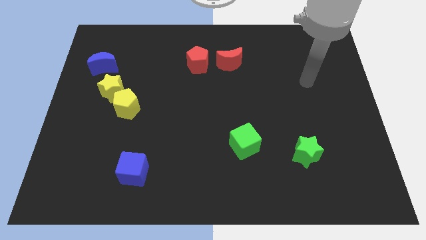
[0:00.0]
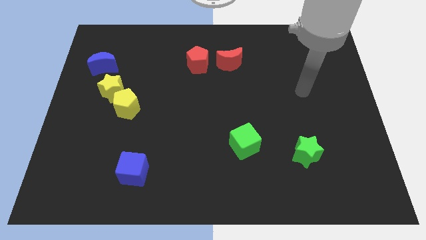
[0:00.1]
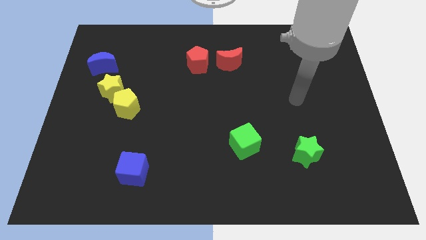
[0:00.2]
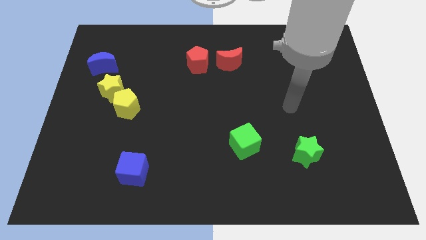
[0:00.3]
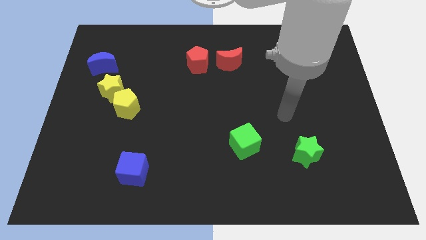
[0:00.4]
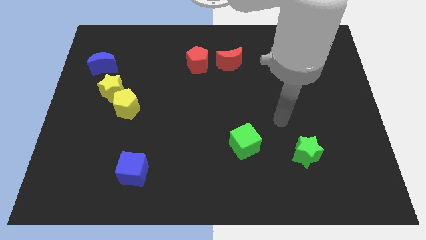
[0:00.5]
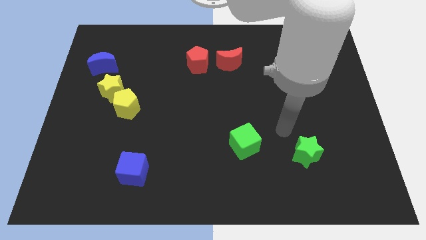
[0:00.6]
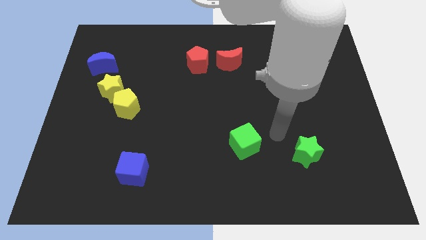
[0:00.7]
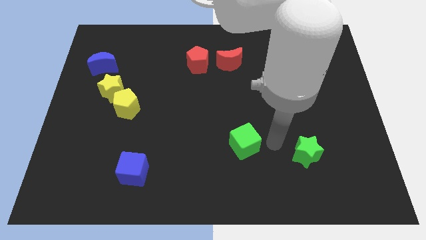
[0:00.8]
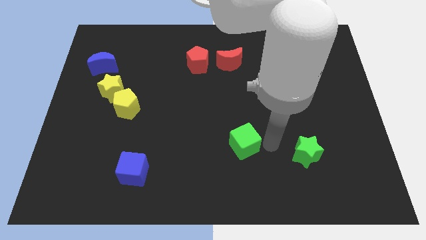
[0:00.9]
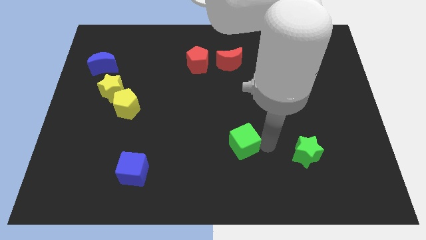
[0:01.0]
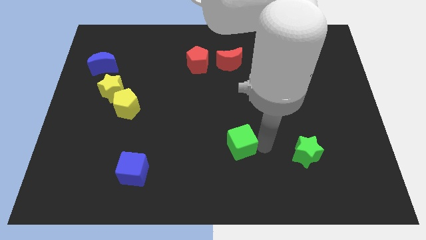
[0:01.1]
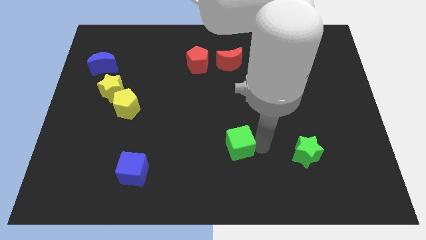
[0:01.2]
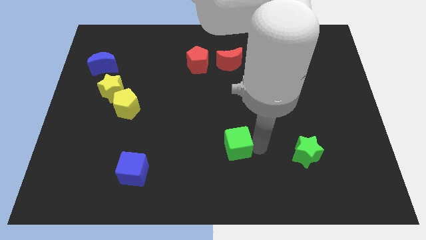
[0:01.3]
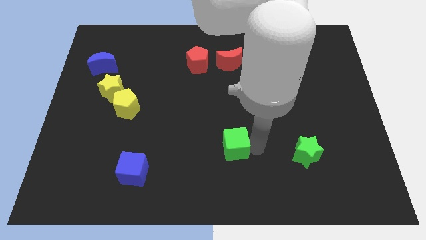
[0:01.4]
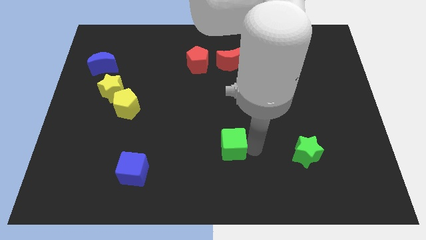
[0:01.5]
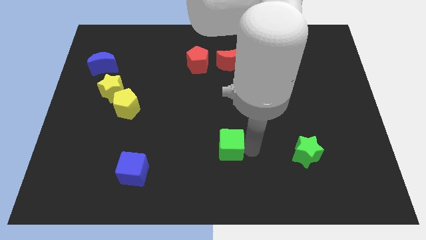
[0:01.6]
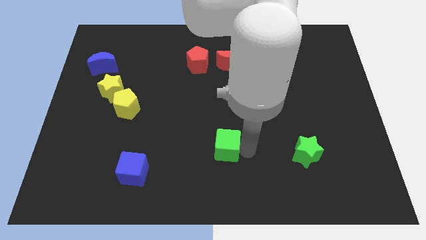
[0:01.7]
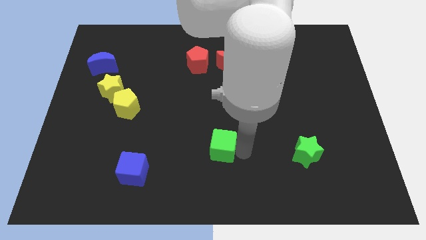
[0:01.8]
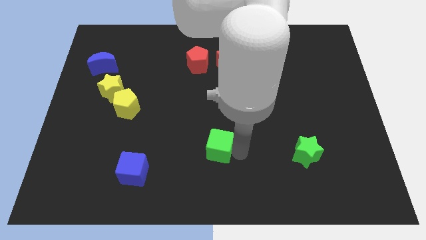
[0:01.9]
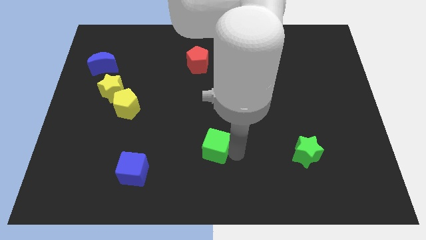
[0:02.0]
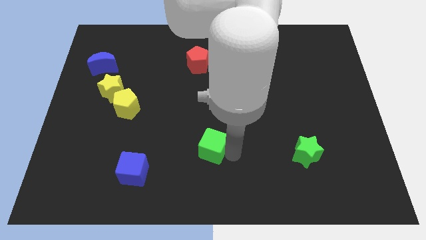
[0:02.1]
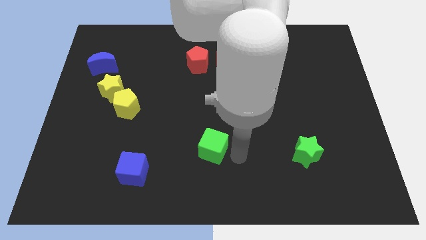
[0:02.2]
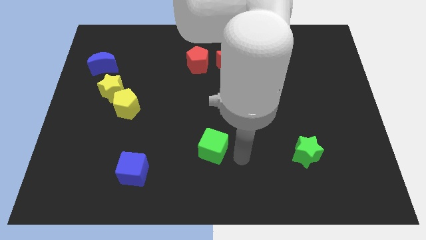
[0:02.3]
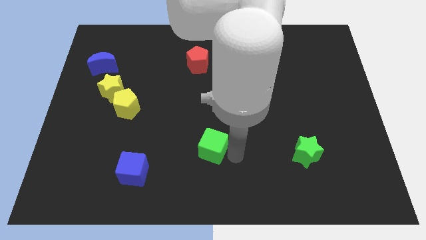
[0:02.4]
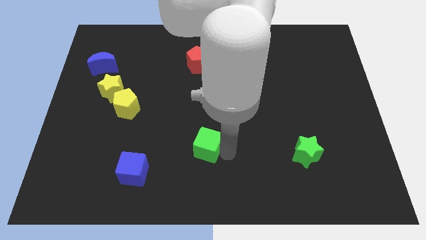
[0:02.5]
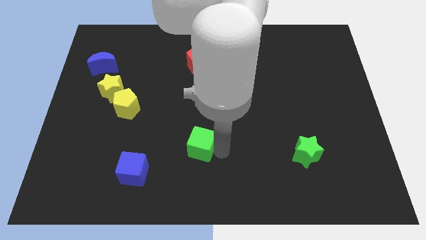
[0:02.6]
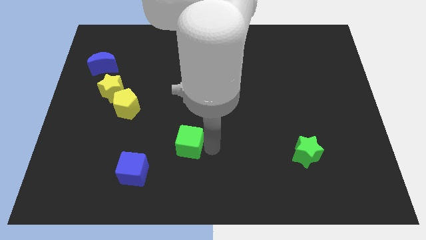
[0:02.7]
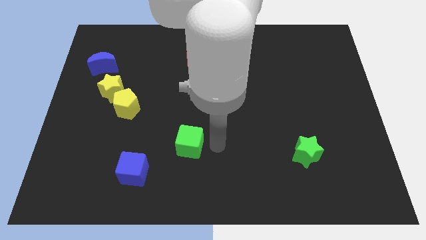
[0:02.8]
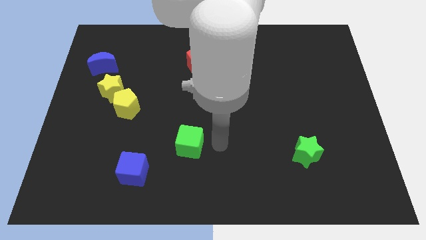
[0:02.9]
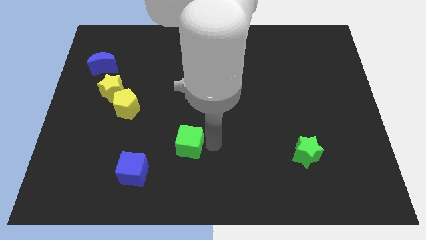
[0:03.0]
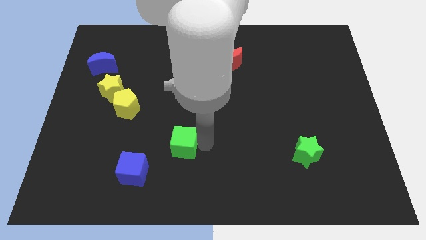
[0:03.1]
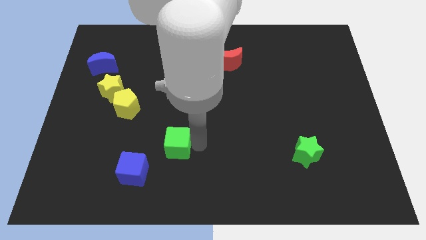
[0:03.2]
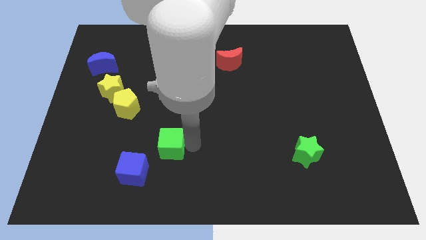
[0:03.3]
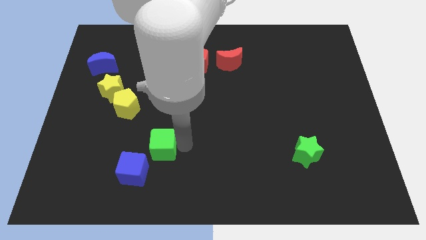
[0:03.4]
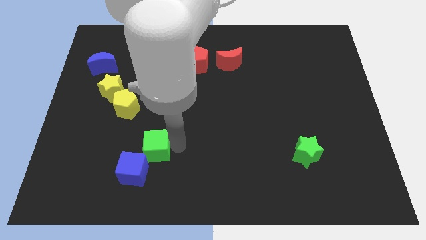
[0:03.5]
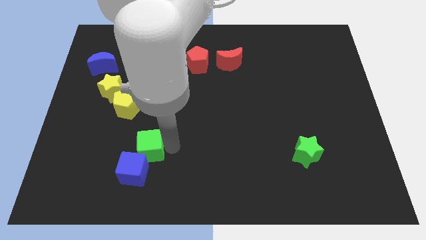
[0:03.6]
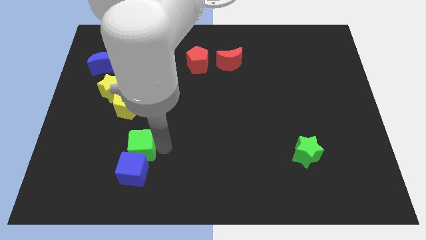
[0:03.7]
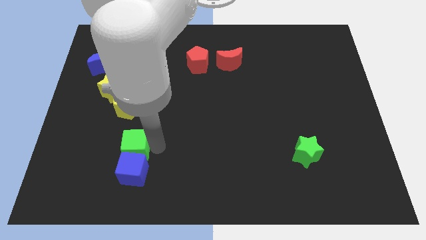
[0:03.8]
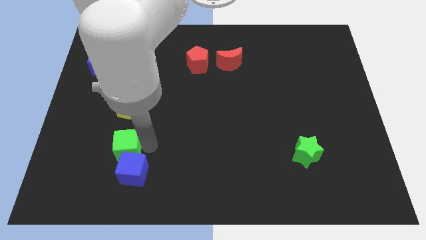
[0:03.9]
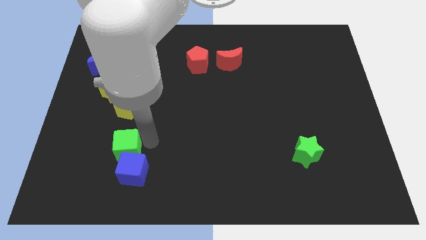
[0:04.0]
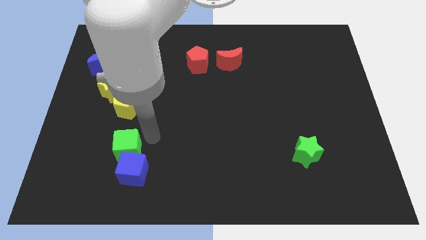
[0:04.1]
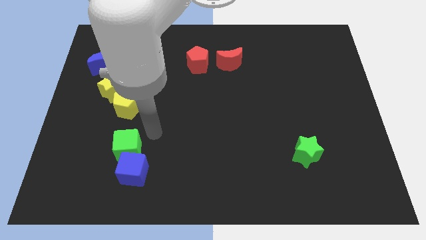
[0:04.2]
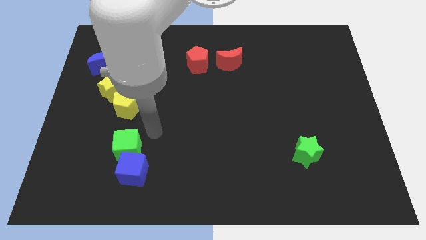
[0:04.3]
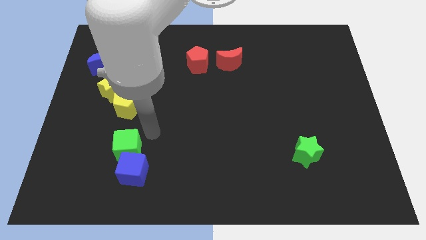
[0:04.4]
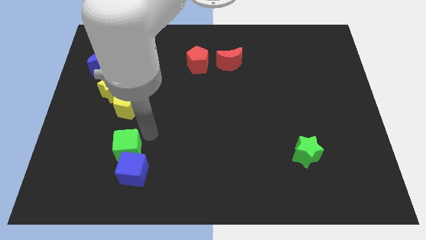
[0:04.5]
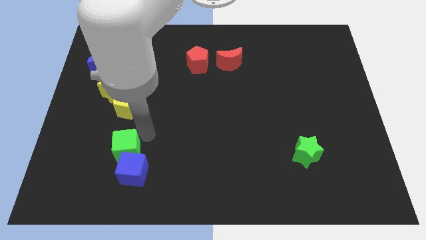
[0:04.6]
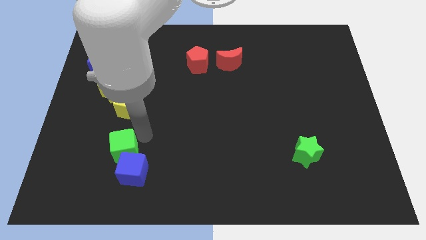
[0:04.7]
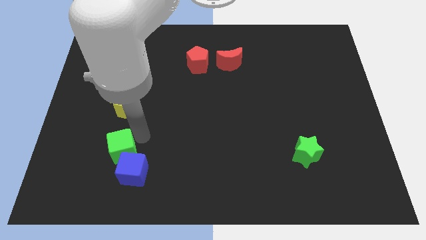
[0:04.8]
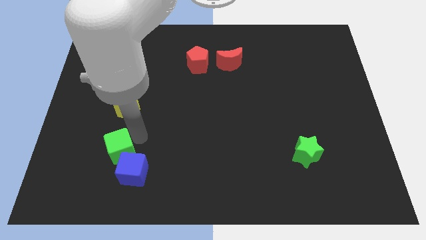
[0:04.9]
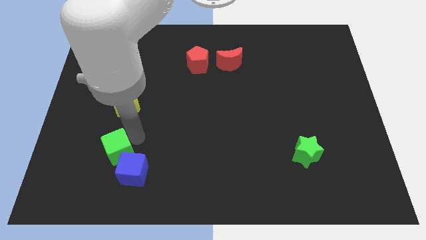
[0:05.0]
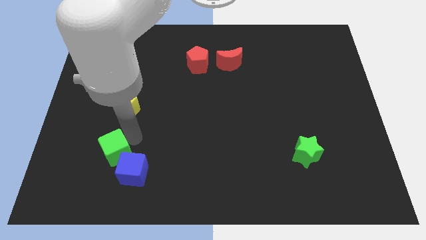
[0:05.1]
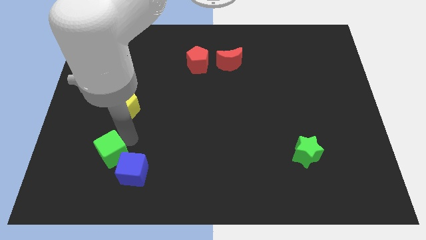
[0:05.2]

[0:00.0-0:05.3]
slide the green cube to the left of the blue cube

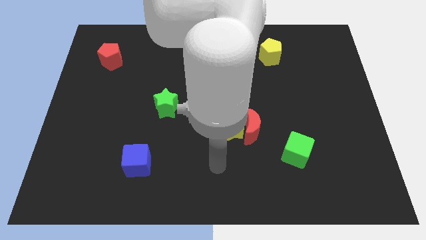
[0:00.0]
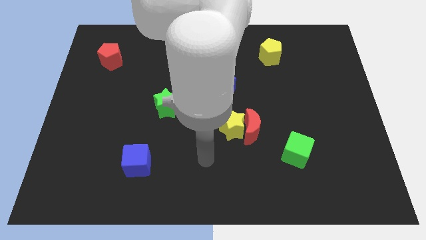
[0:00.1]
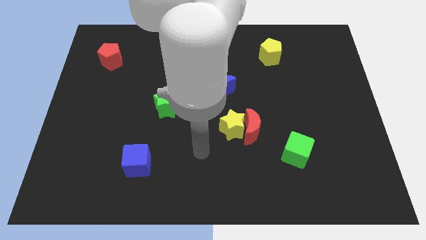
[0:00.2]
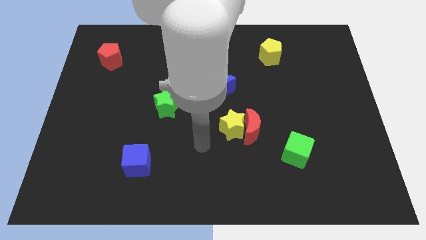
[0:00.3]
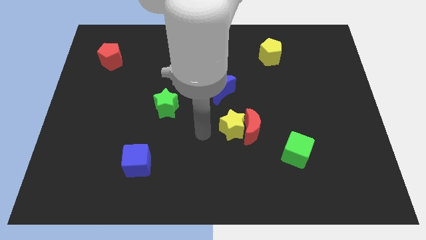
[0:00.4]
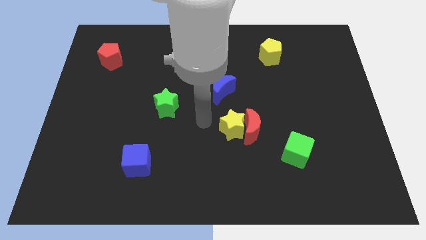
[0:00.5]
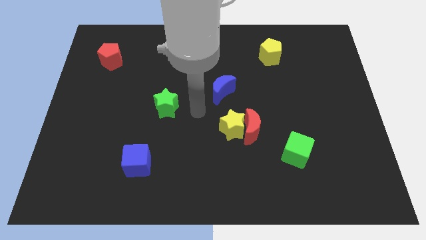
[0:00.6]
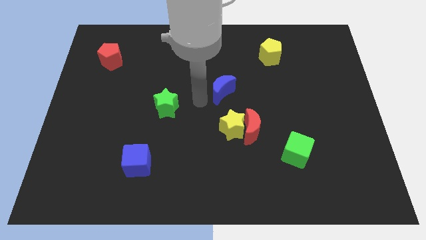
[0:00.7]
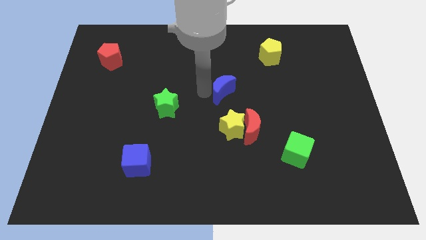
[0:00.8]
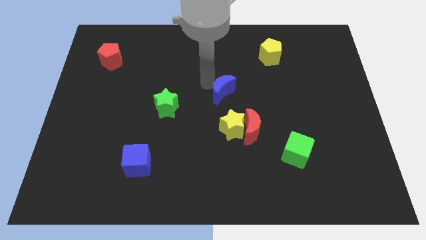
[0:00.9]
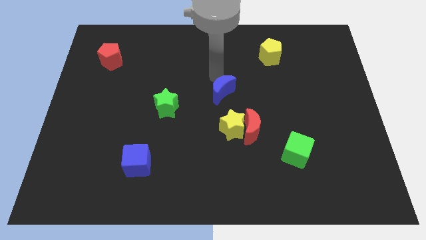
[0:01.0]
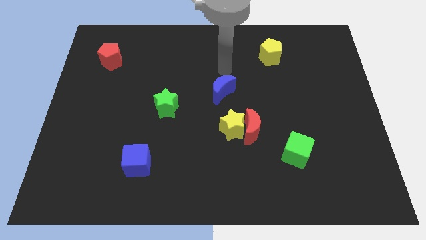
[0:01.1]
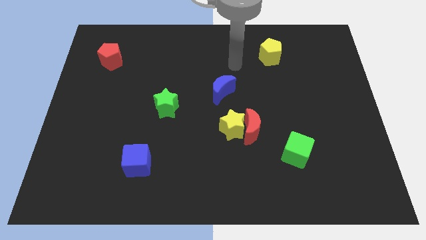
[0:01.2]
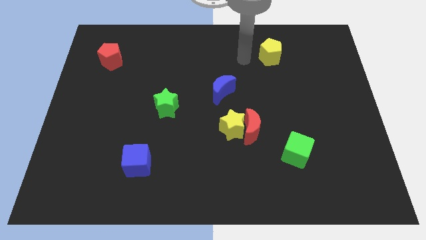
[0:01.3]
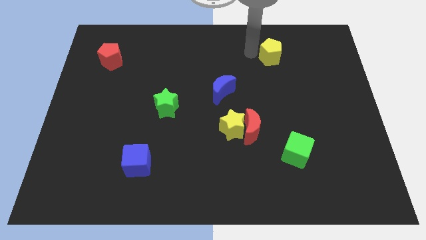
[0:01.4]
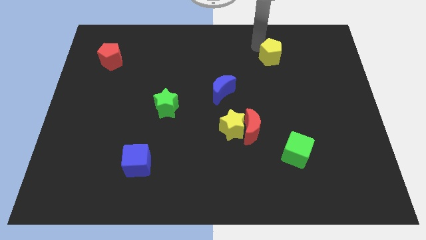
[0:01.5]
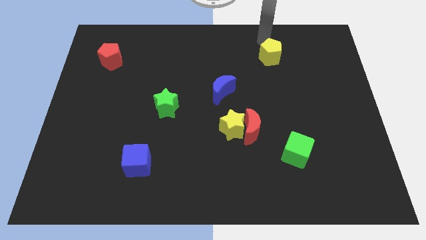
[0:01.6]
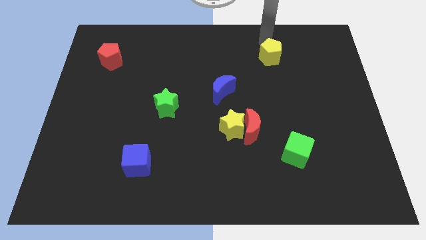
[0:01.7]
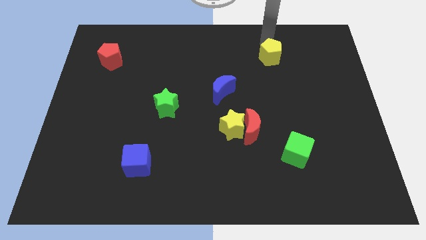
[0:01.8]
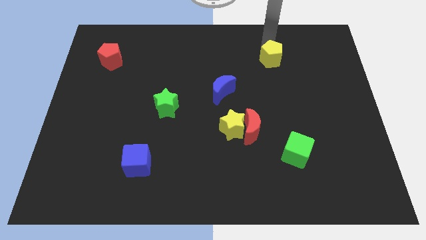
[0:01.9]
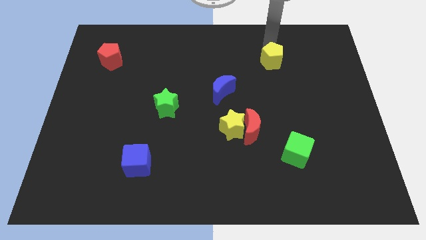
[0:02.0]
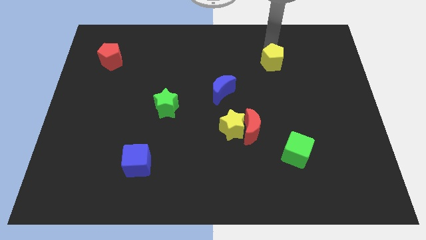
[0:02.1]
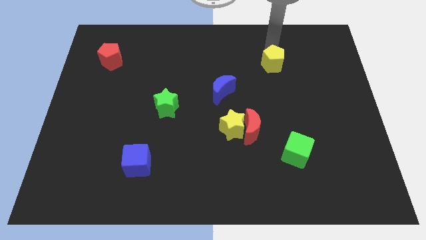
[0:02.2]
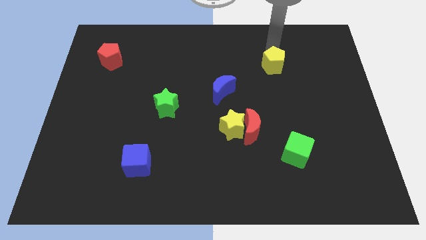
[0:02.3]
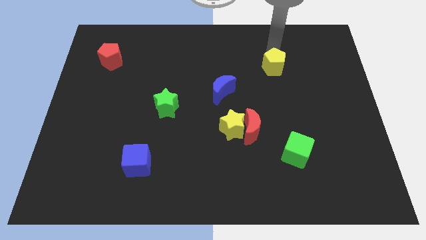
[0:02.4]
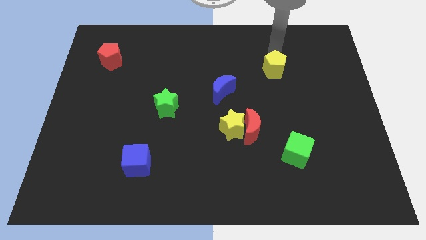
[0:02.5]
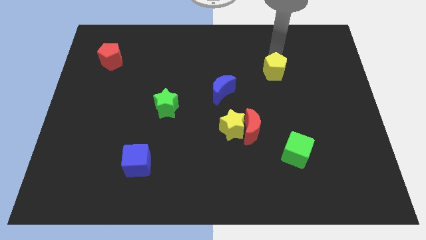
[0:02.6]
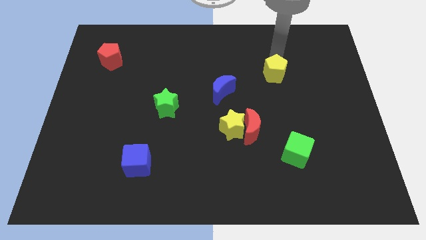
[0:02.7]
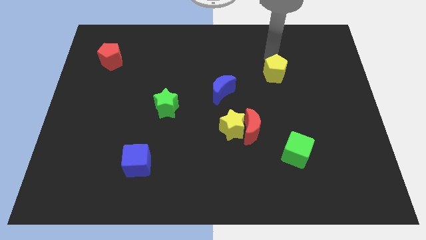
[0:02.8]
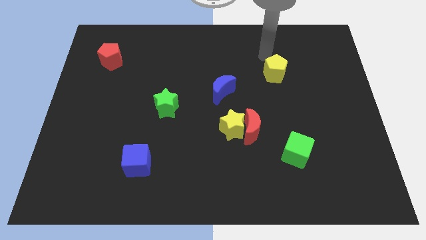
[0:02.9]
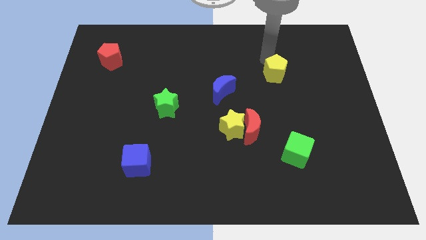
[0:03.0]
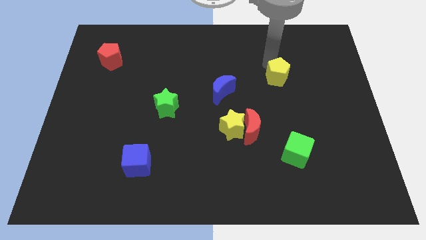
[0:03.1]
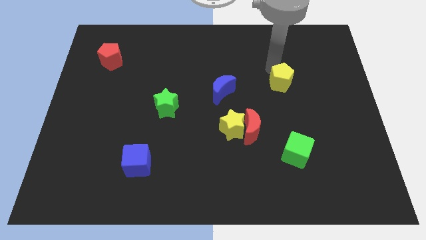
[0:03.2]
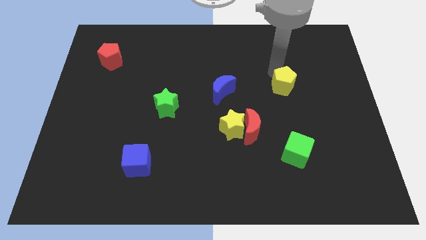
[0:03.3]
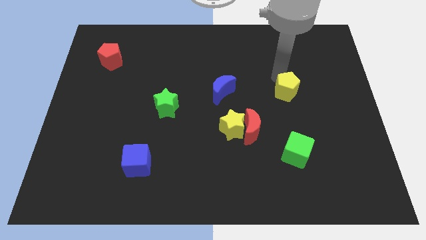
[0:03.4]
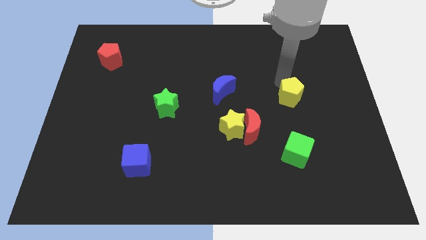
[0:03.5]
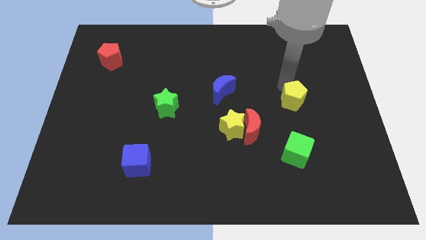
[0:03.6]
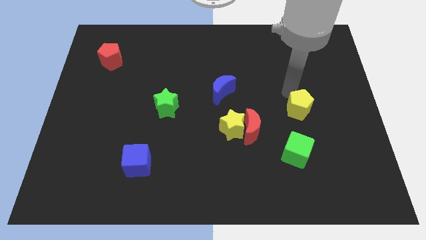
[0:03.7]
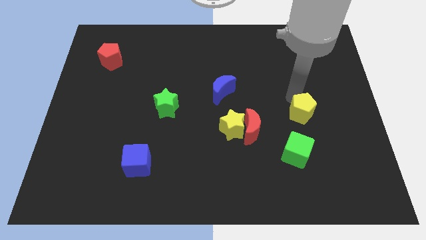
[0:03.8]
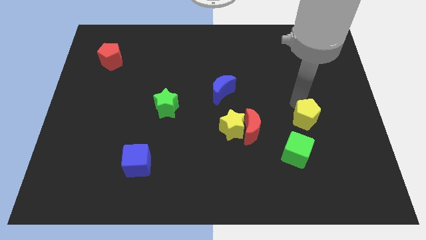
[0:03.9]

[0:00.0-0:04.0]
put the yellow pentagon right of the red moon
